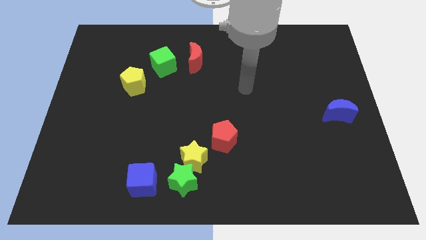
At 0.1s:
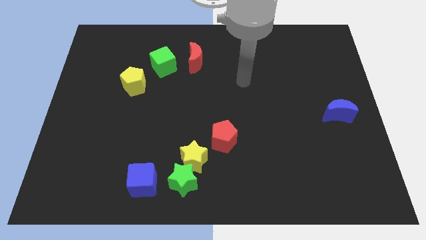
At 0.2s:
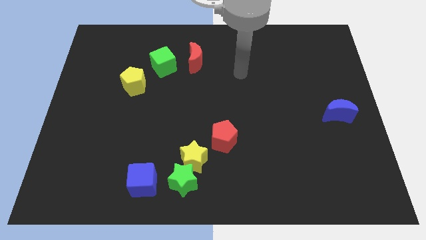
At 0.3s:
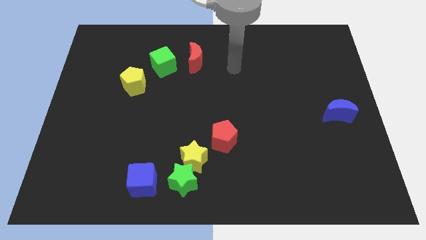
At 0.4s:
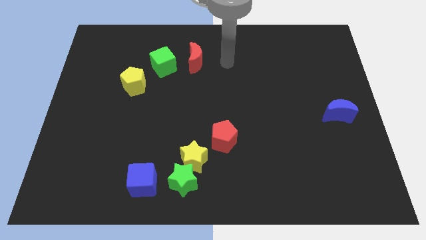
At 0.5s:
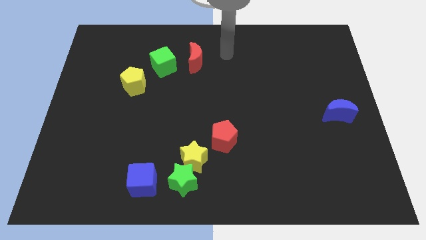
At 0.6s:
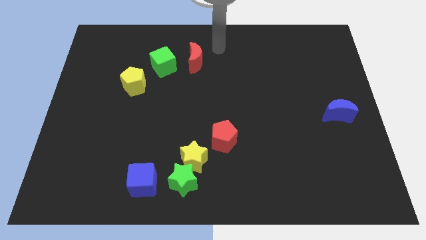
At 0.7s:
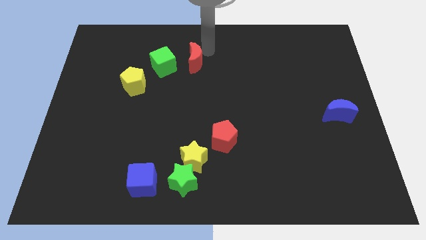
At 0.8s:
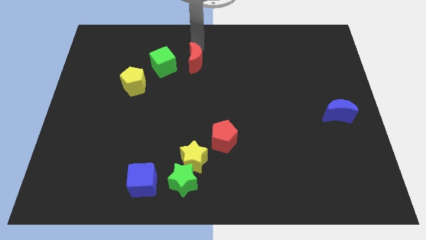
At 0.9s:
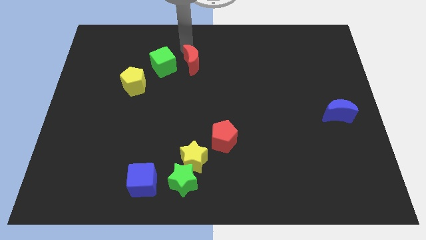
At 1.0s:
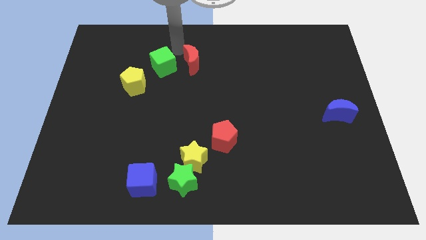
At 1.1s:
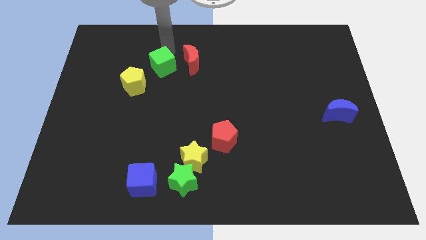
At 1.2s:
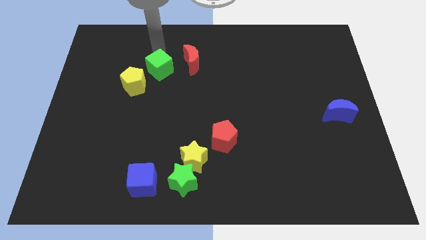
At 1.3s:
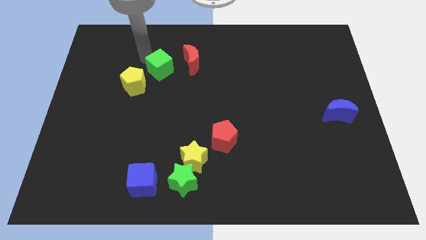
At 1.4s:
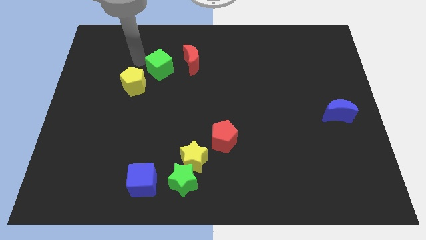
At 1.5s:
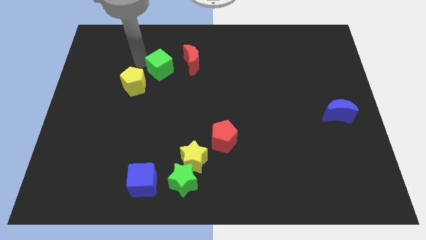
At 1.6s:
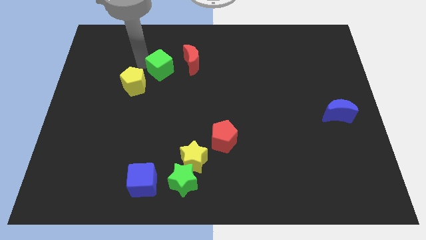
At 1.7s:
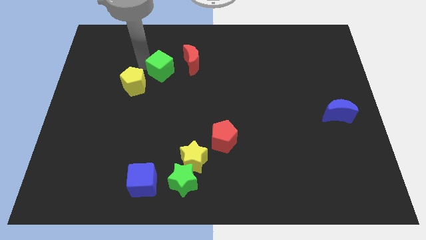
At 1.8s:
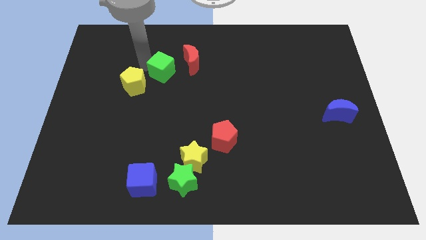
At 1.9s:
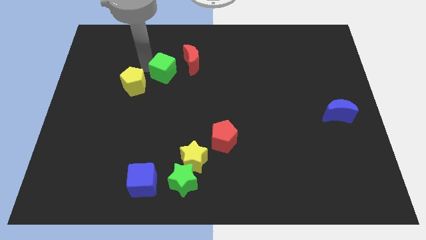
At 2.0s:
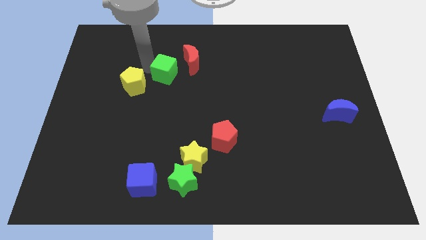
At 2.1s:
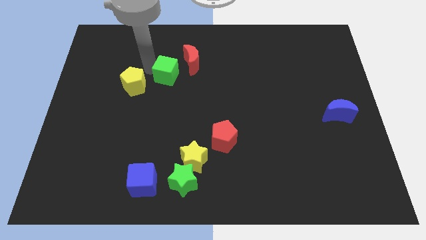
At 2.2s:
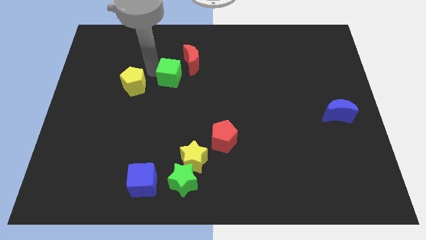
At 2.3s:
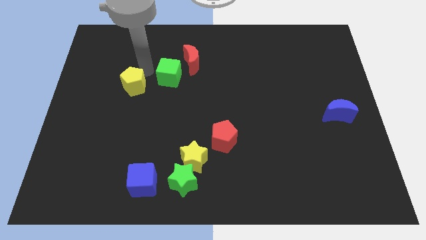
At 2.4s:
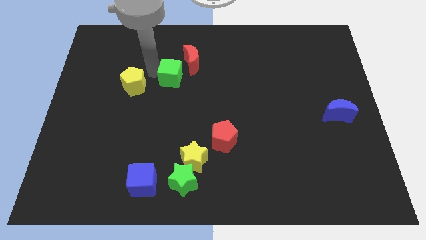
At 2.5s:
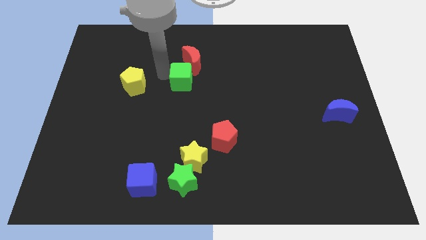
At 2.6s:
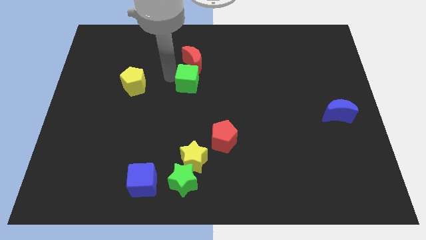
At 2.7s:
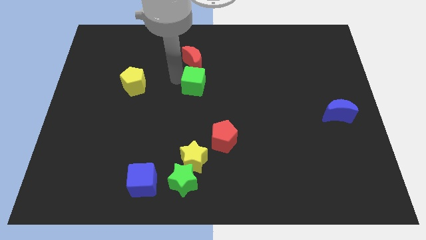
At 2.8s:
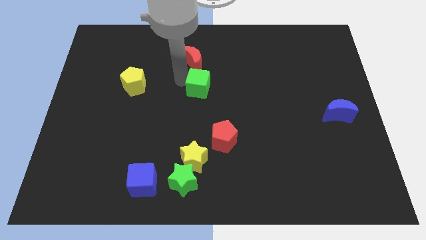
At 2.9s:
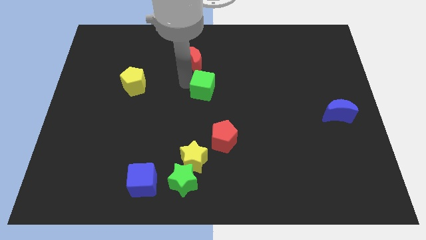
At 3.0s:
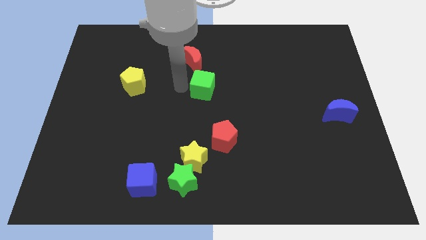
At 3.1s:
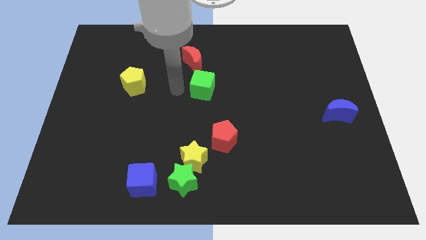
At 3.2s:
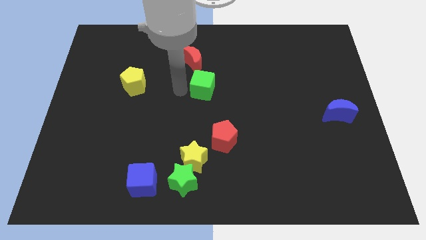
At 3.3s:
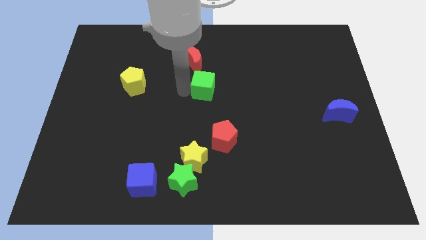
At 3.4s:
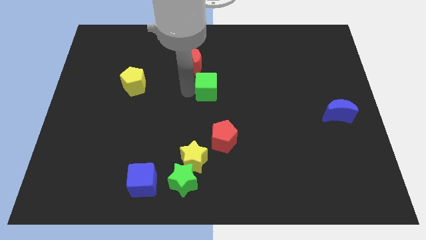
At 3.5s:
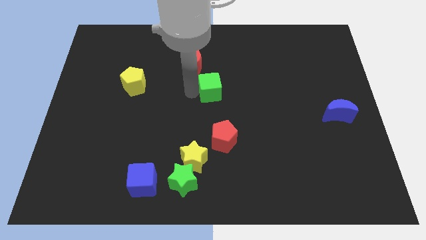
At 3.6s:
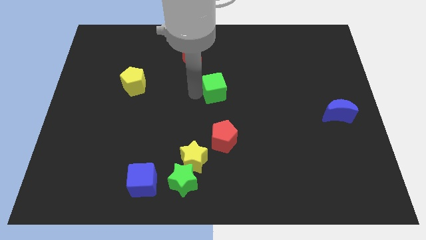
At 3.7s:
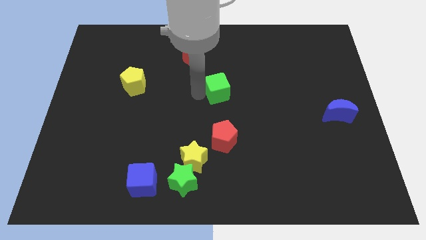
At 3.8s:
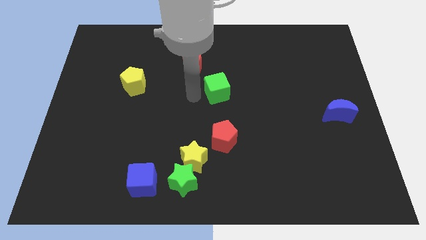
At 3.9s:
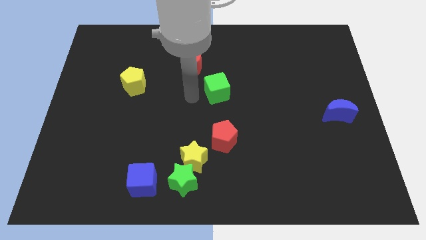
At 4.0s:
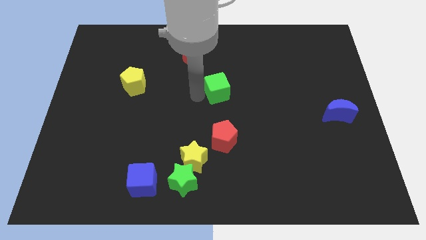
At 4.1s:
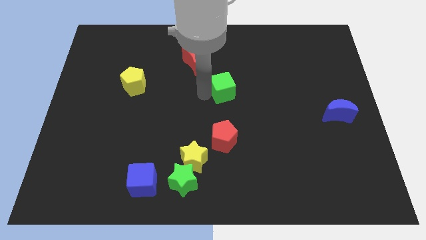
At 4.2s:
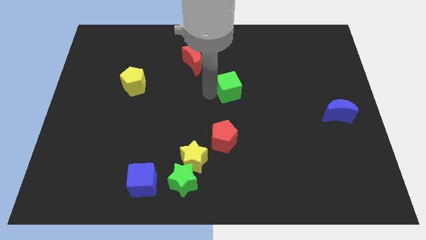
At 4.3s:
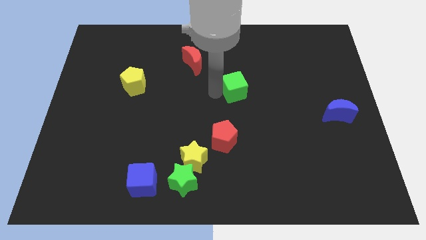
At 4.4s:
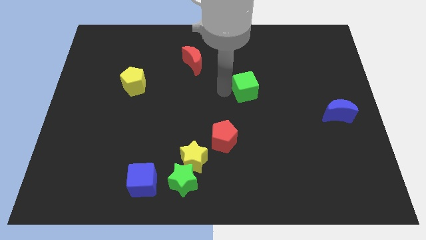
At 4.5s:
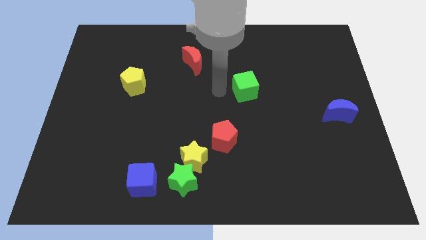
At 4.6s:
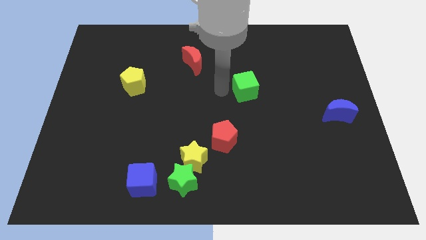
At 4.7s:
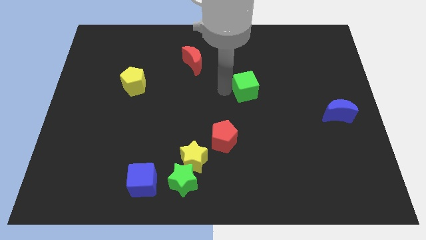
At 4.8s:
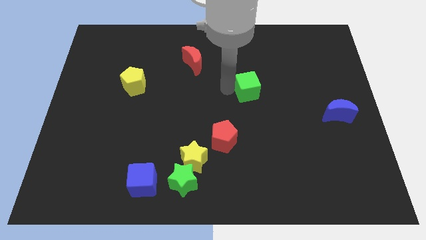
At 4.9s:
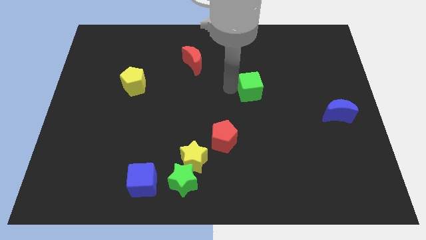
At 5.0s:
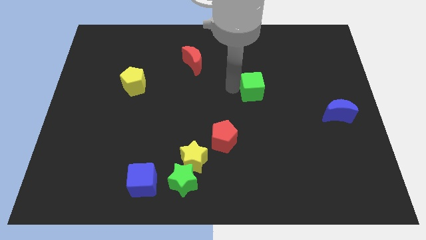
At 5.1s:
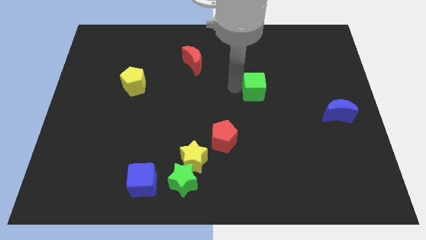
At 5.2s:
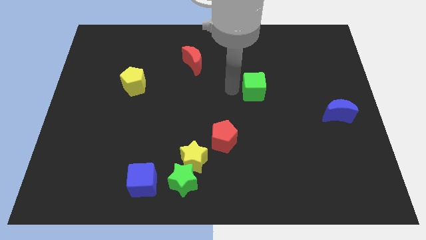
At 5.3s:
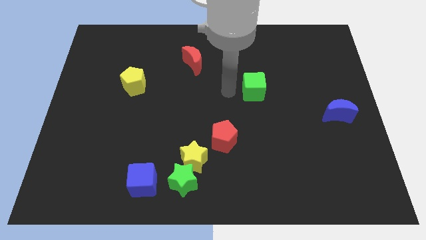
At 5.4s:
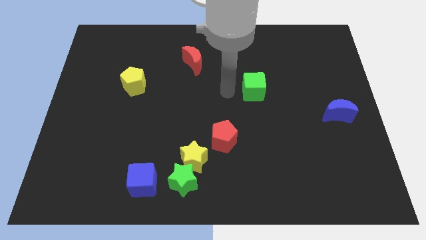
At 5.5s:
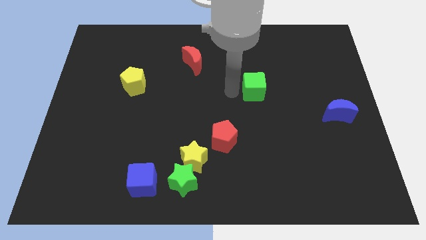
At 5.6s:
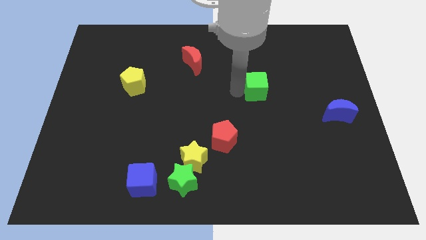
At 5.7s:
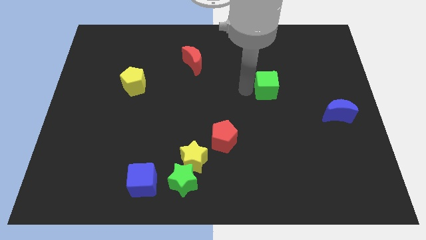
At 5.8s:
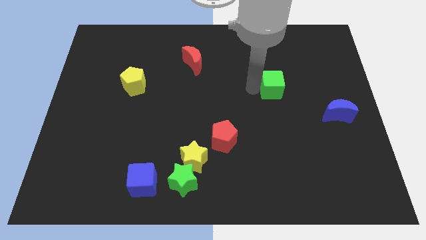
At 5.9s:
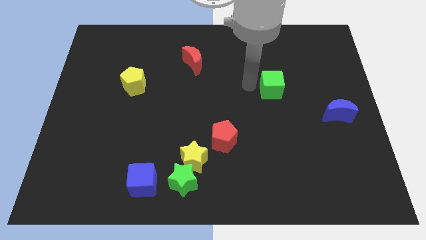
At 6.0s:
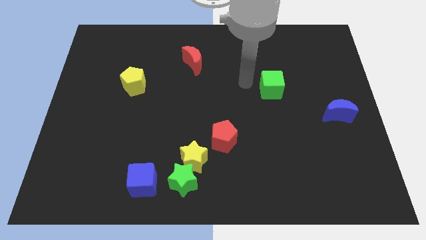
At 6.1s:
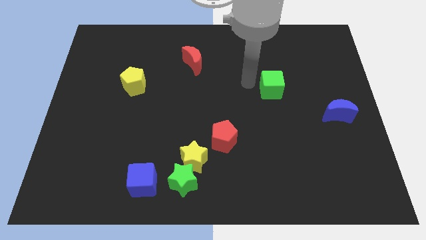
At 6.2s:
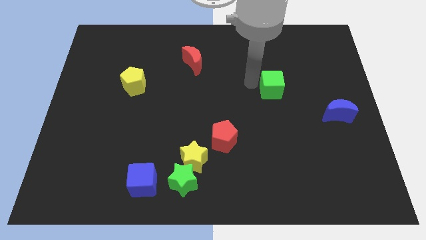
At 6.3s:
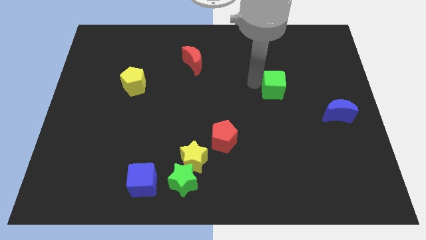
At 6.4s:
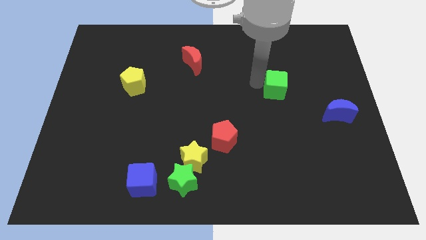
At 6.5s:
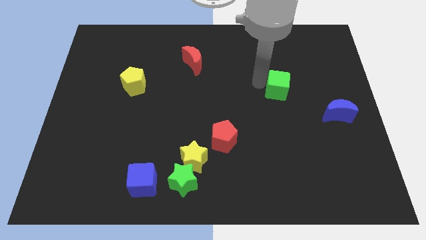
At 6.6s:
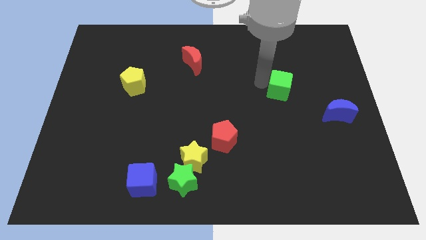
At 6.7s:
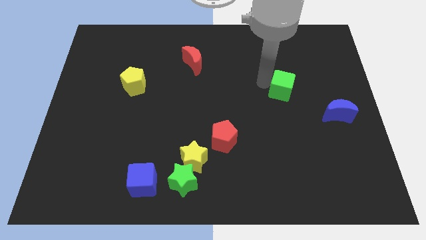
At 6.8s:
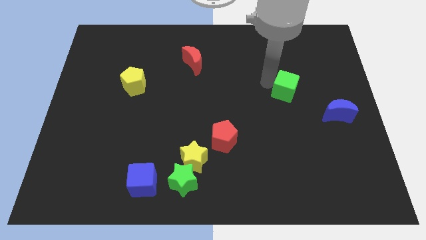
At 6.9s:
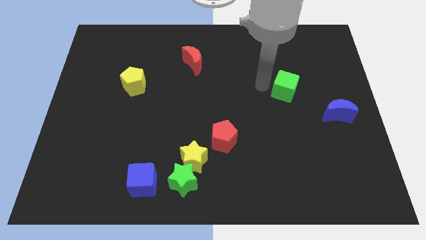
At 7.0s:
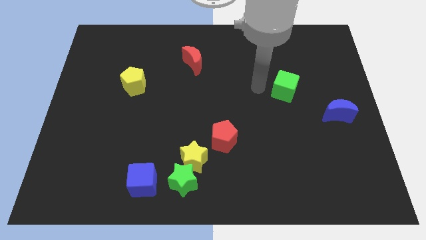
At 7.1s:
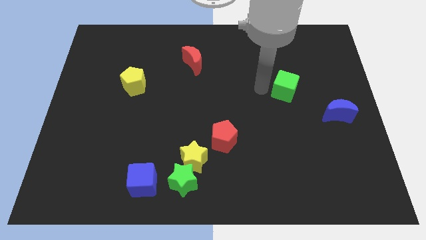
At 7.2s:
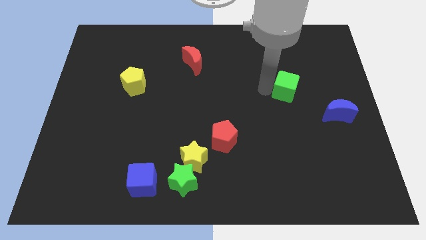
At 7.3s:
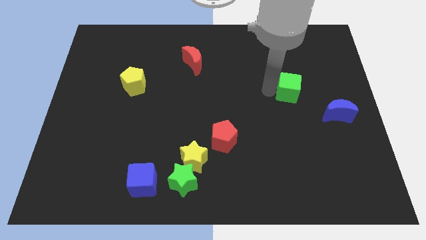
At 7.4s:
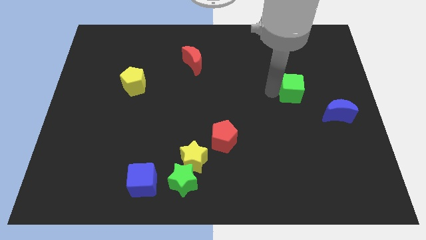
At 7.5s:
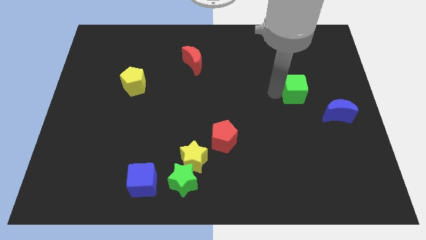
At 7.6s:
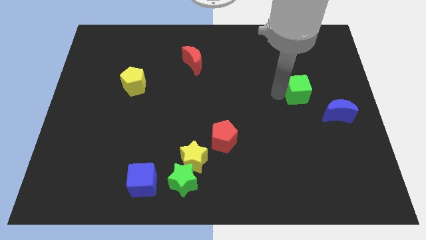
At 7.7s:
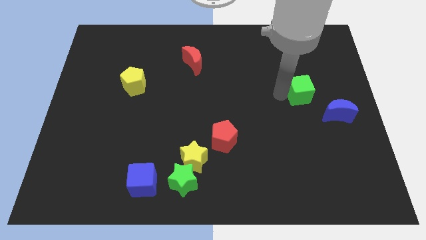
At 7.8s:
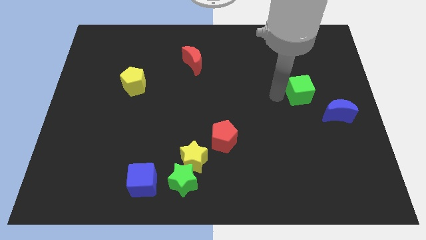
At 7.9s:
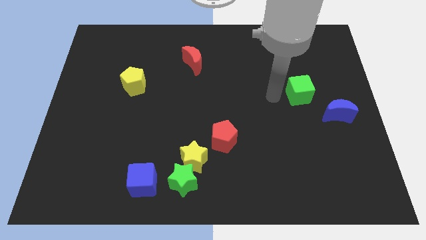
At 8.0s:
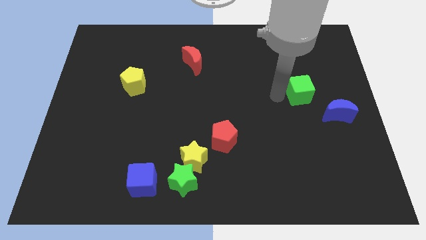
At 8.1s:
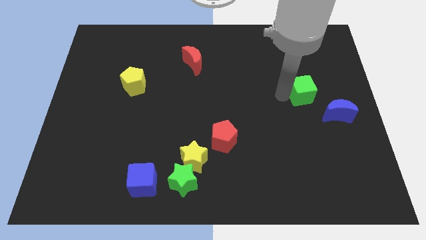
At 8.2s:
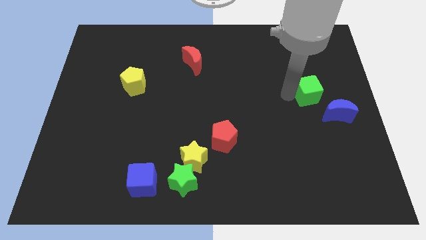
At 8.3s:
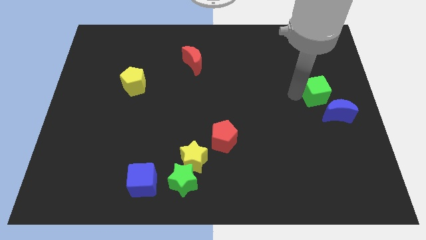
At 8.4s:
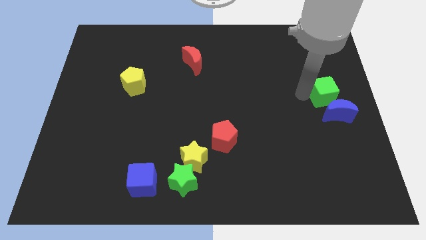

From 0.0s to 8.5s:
move the green cube to the right side
